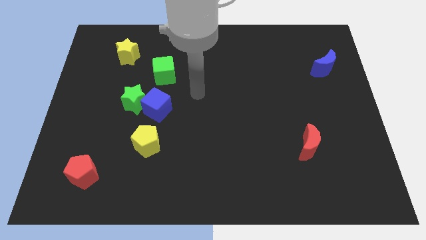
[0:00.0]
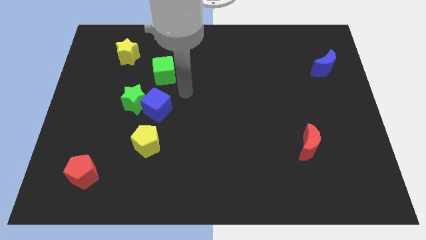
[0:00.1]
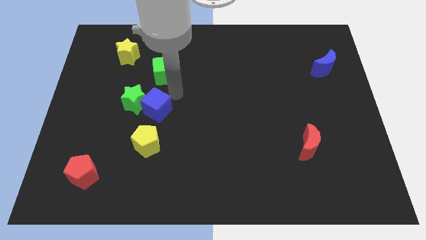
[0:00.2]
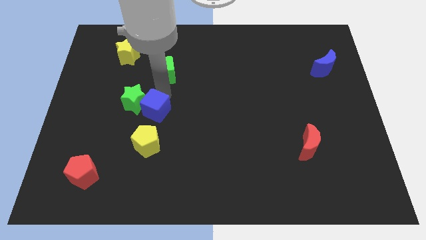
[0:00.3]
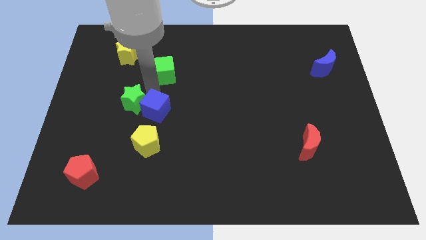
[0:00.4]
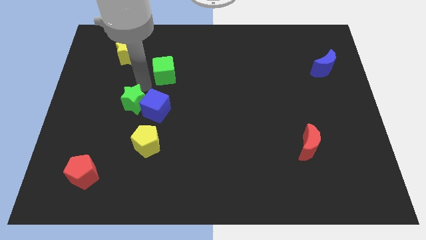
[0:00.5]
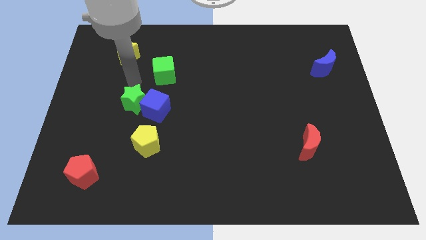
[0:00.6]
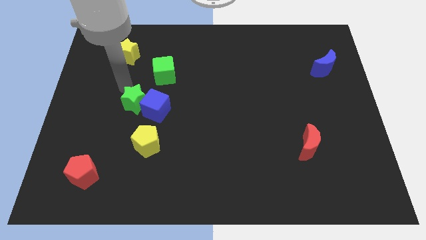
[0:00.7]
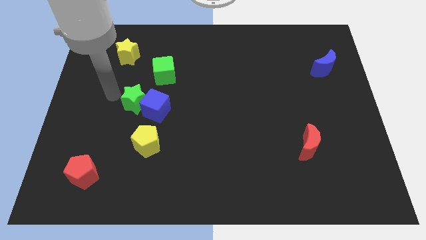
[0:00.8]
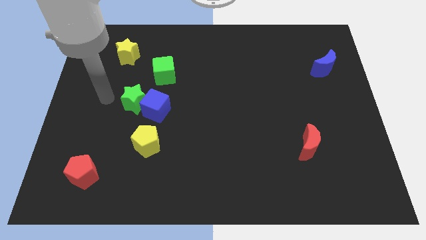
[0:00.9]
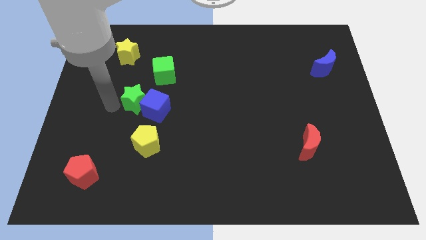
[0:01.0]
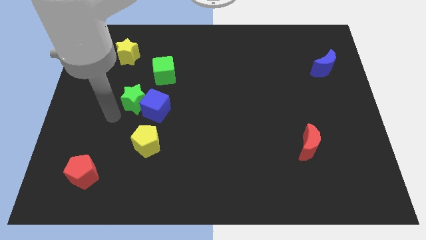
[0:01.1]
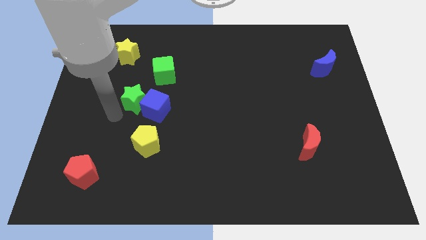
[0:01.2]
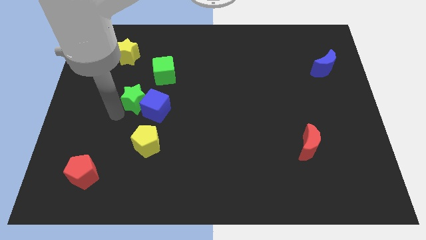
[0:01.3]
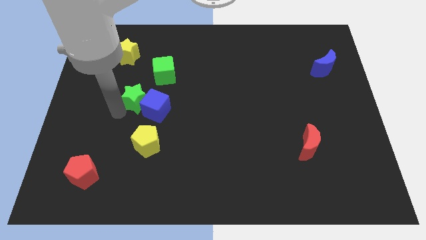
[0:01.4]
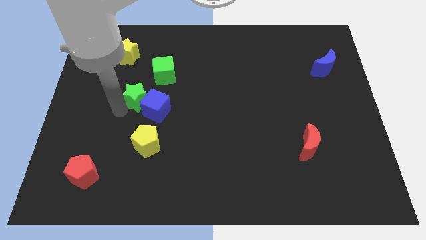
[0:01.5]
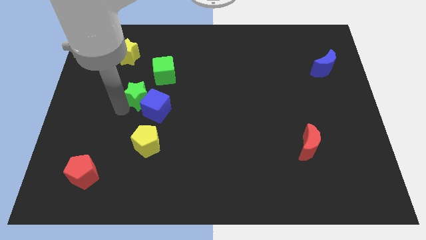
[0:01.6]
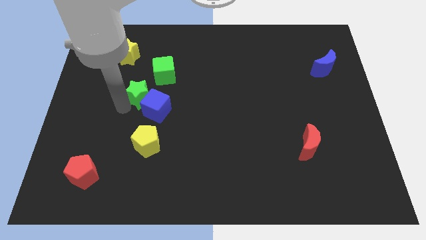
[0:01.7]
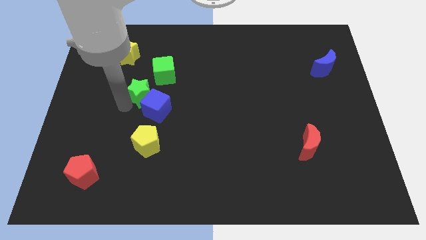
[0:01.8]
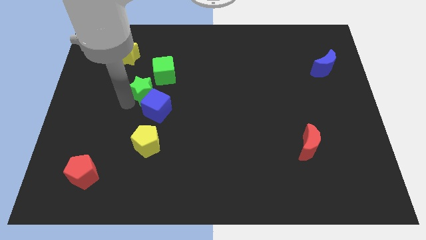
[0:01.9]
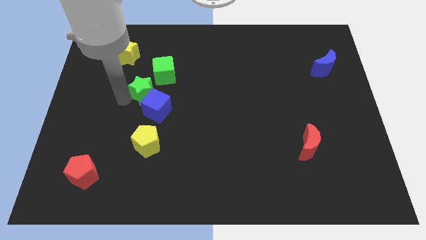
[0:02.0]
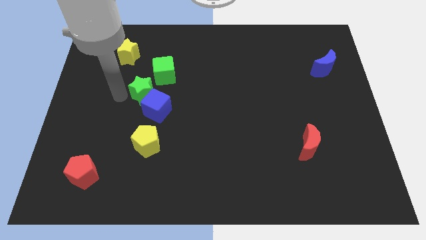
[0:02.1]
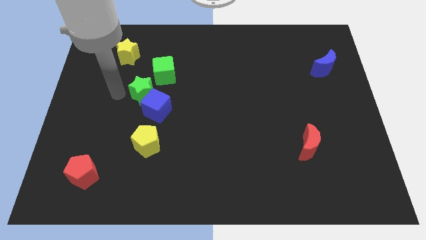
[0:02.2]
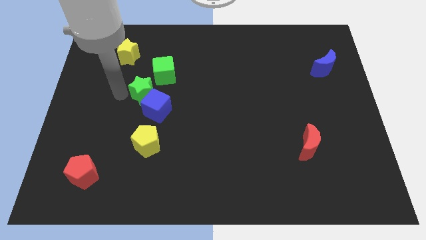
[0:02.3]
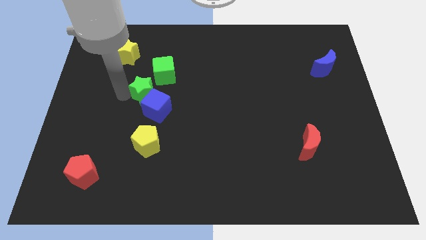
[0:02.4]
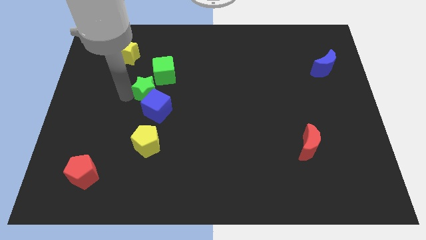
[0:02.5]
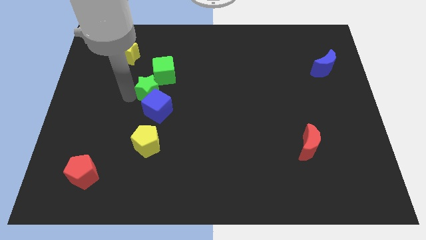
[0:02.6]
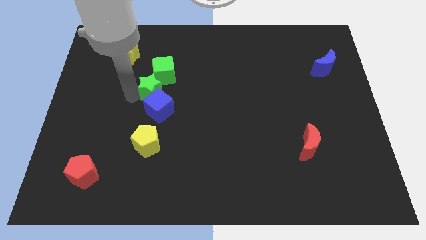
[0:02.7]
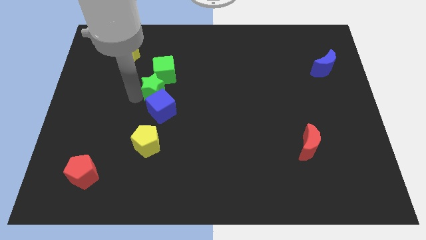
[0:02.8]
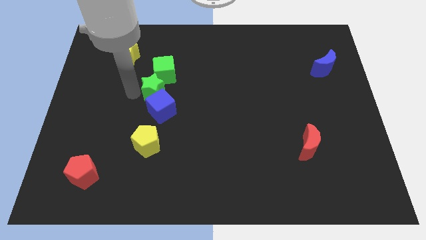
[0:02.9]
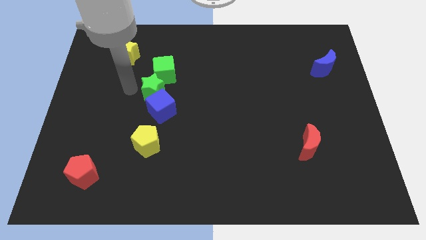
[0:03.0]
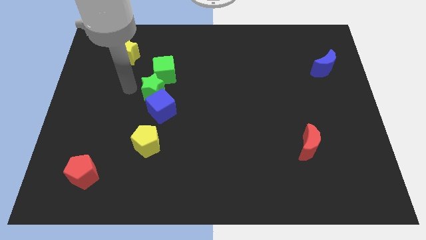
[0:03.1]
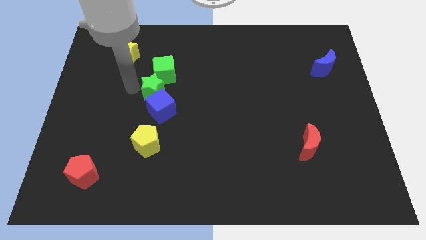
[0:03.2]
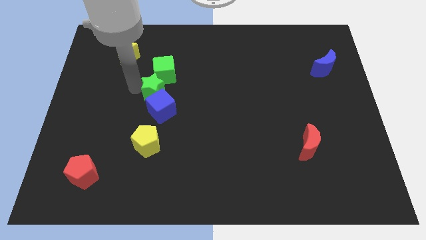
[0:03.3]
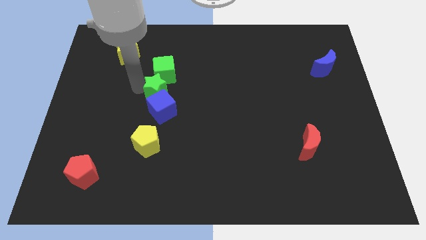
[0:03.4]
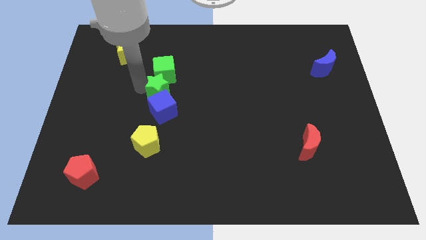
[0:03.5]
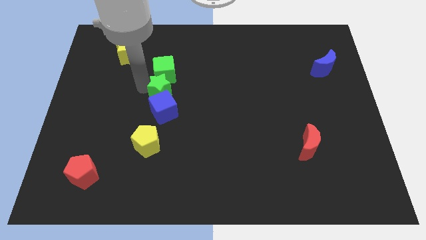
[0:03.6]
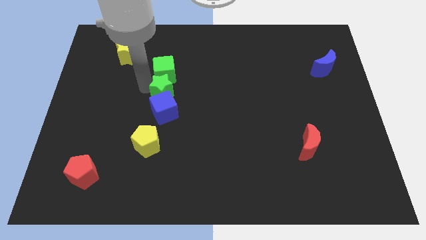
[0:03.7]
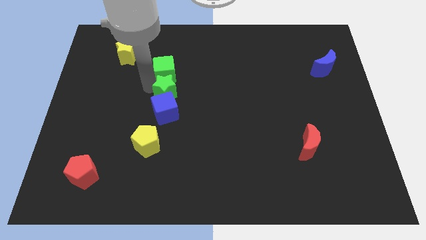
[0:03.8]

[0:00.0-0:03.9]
move the green star somewhat to the right

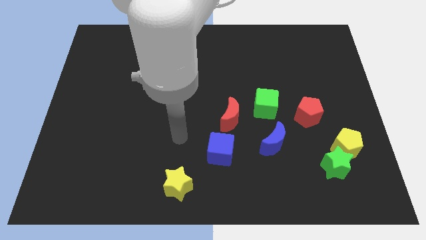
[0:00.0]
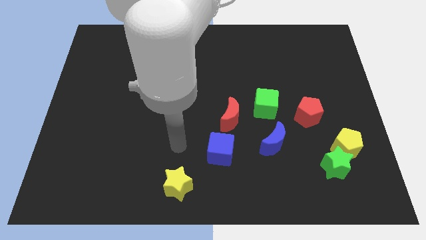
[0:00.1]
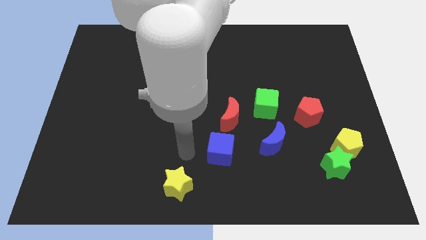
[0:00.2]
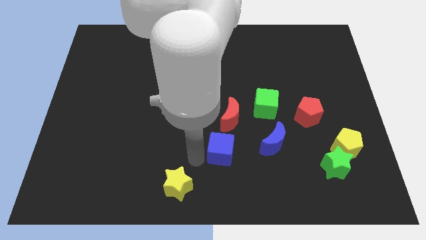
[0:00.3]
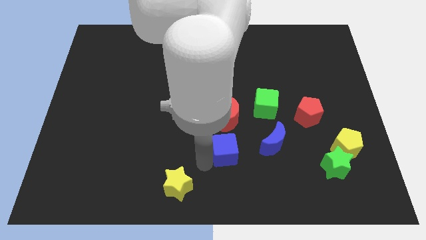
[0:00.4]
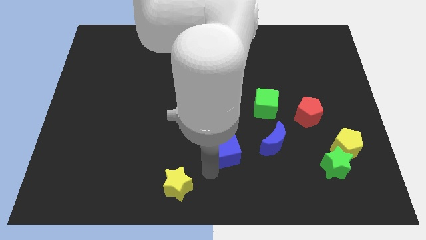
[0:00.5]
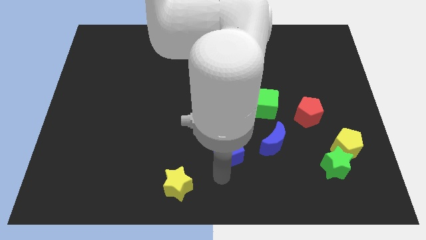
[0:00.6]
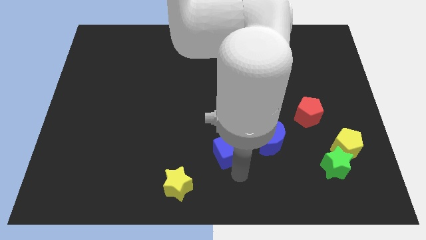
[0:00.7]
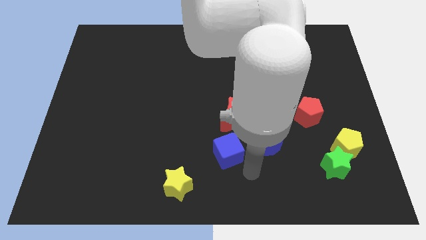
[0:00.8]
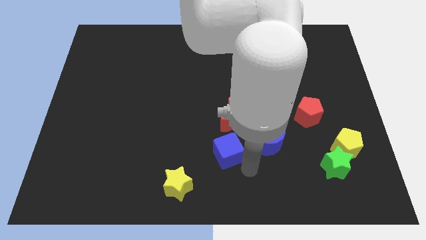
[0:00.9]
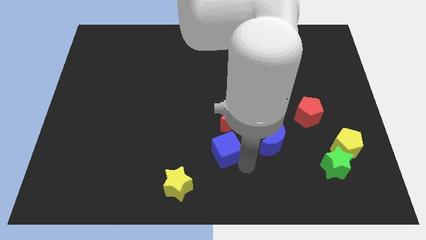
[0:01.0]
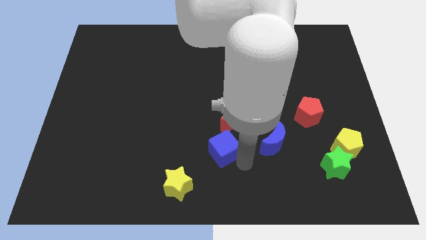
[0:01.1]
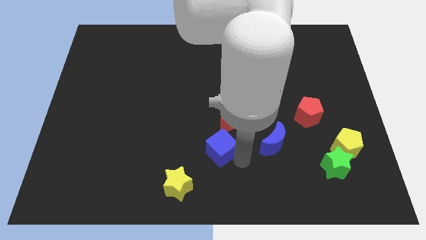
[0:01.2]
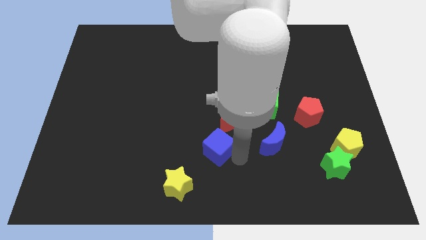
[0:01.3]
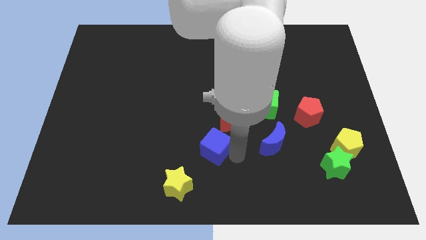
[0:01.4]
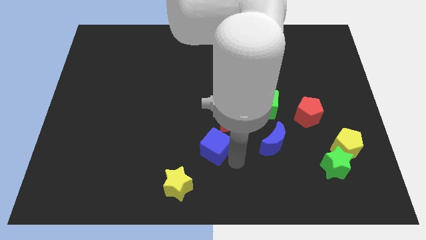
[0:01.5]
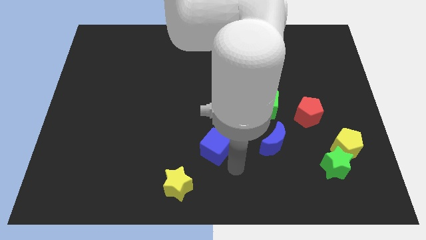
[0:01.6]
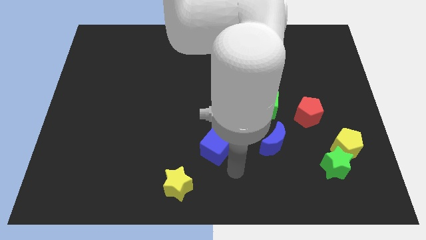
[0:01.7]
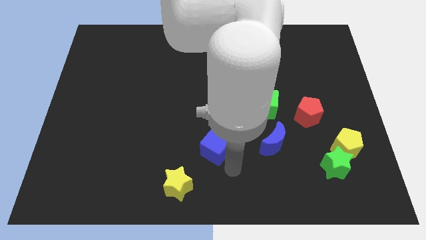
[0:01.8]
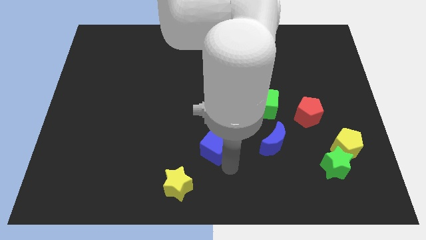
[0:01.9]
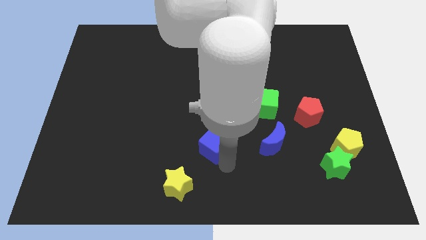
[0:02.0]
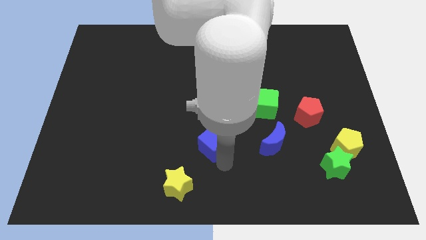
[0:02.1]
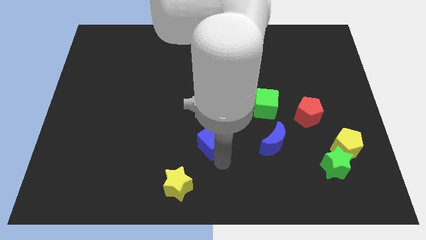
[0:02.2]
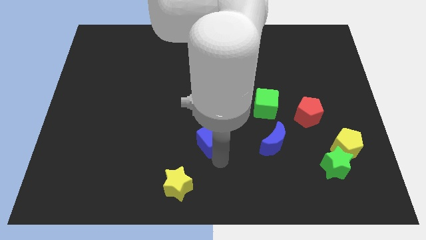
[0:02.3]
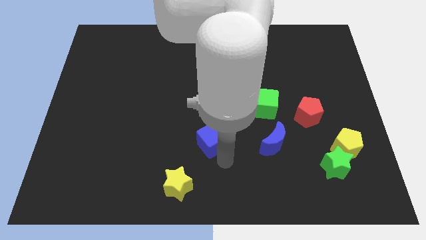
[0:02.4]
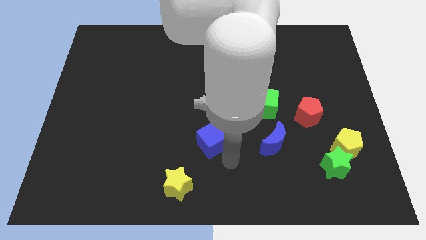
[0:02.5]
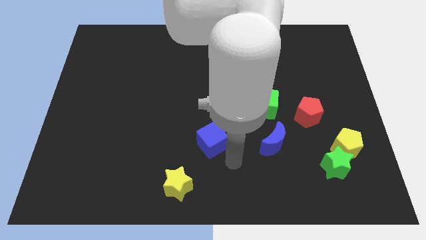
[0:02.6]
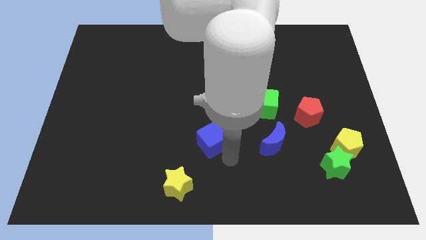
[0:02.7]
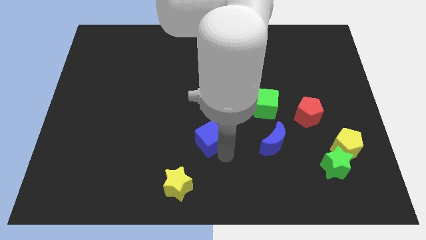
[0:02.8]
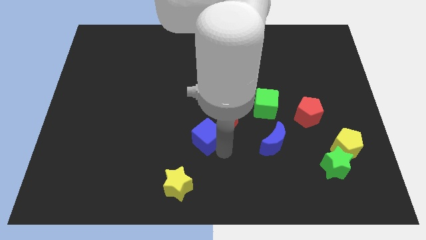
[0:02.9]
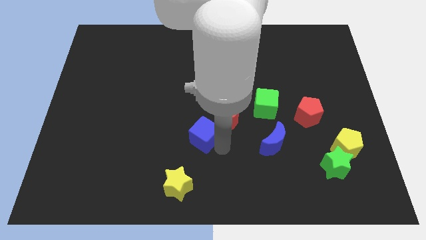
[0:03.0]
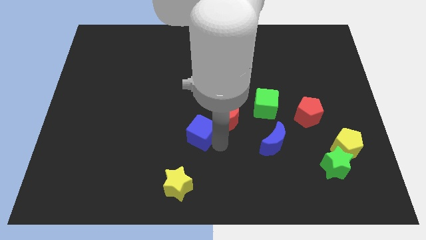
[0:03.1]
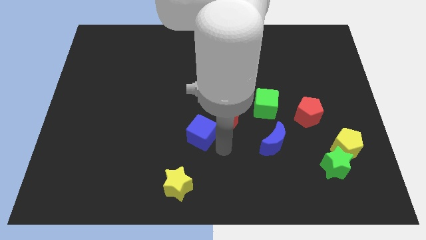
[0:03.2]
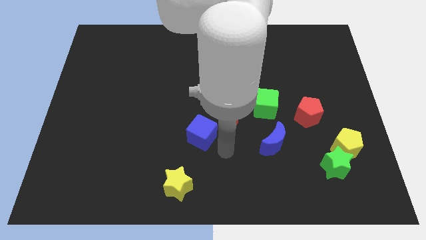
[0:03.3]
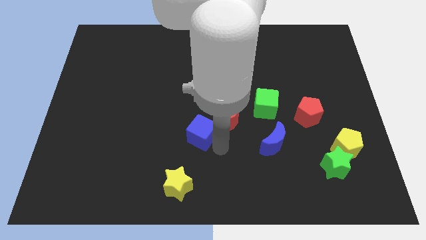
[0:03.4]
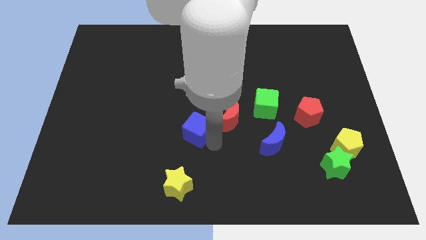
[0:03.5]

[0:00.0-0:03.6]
move the blue cube somewhat upwards and to the left

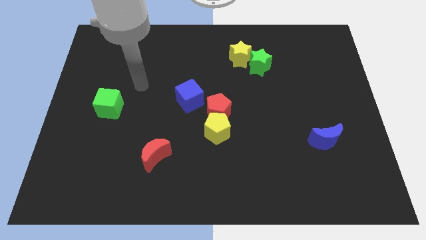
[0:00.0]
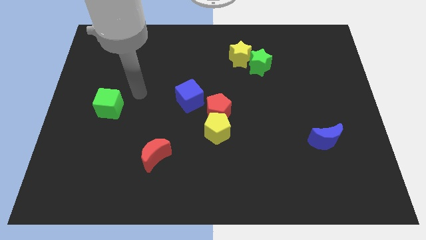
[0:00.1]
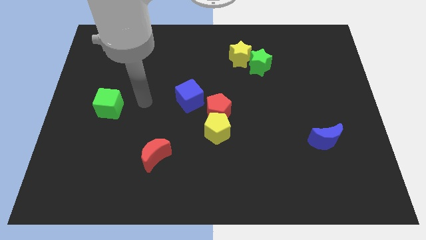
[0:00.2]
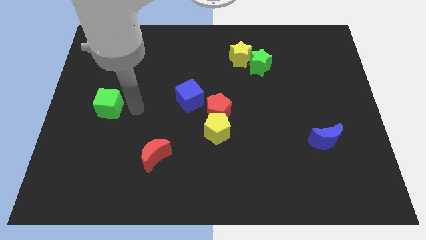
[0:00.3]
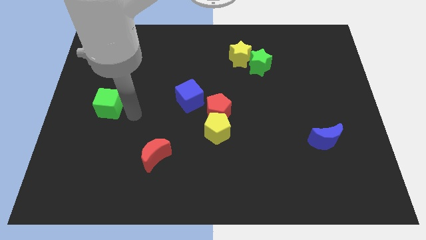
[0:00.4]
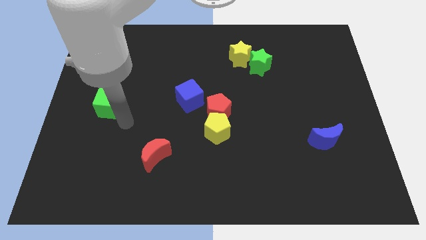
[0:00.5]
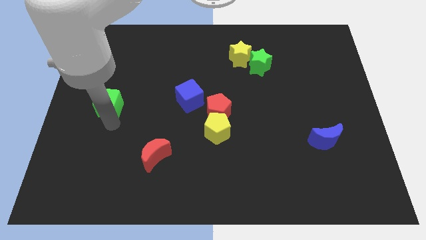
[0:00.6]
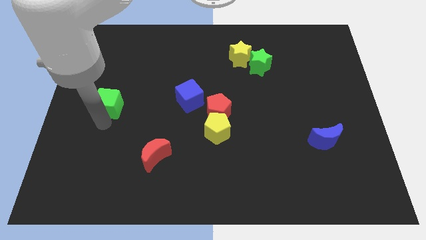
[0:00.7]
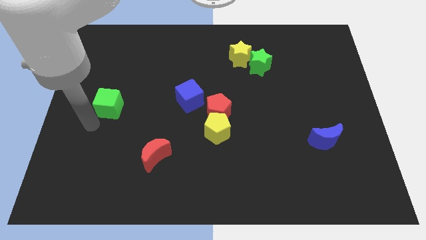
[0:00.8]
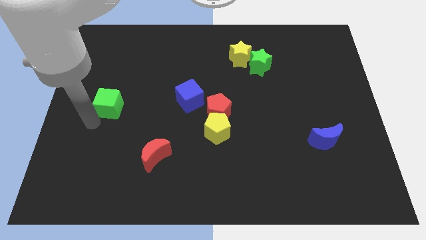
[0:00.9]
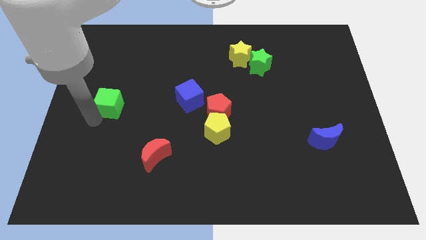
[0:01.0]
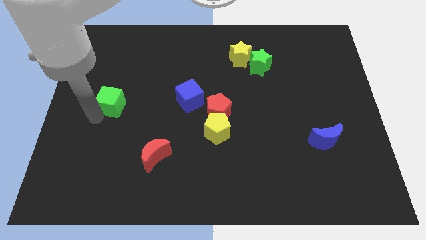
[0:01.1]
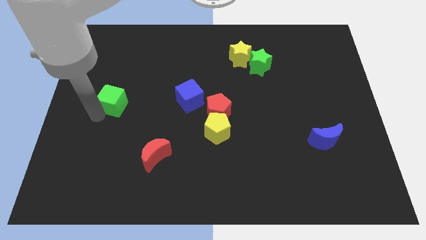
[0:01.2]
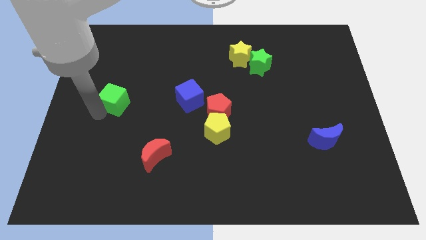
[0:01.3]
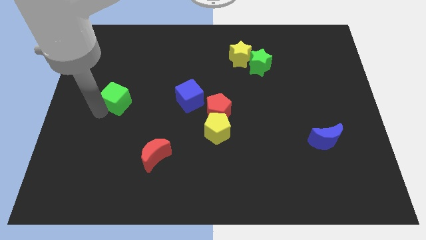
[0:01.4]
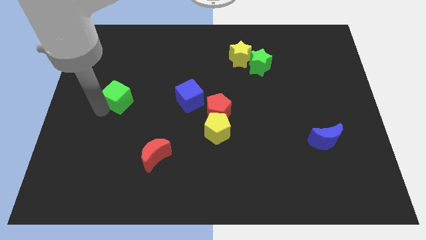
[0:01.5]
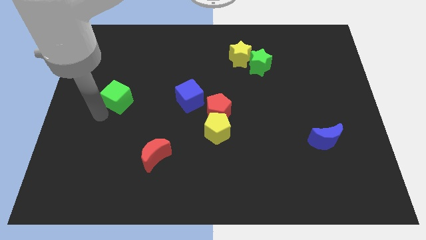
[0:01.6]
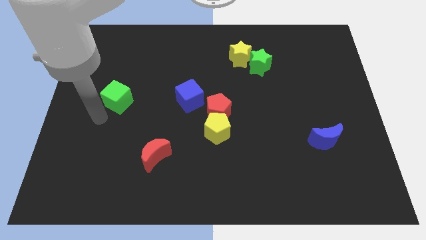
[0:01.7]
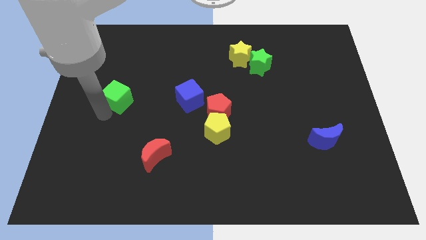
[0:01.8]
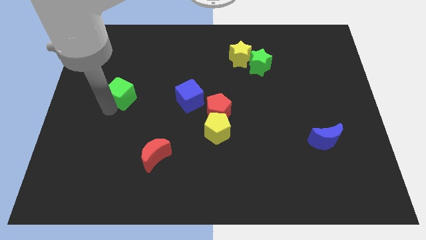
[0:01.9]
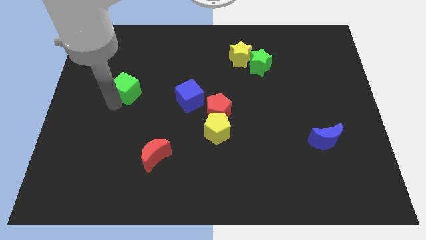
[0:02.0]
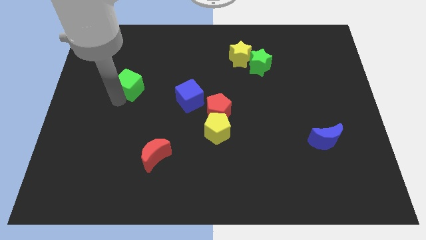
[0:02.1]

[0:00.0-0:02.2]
push the green cube a little diagonally upwards and to the right
